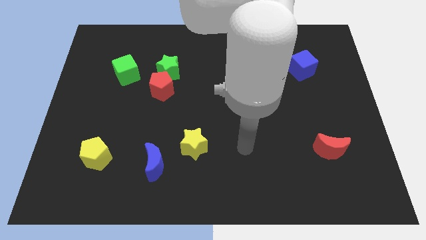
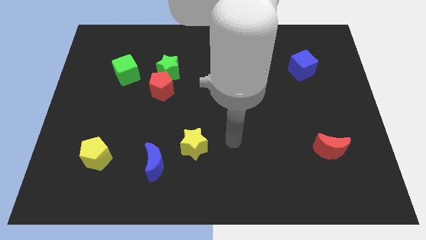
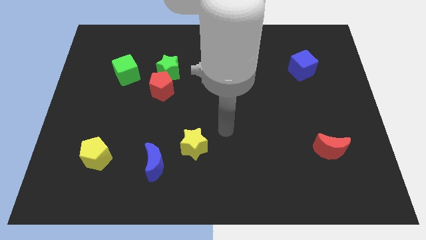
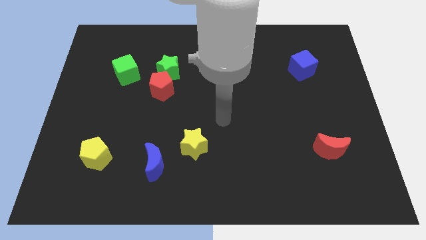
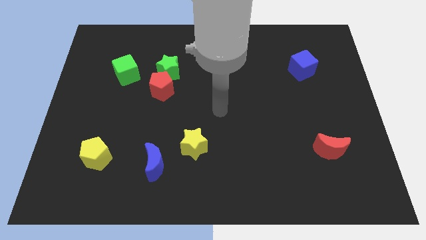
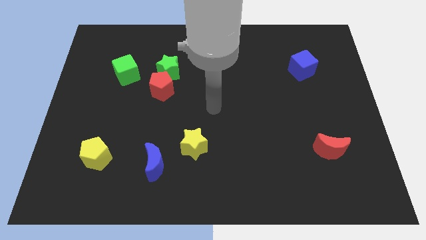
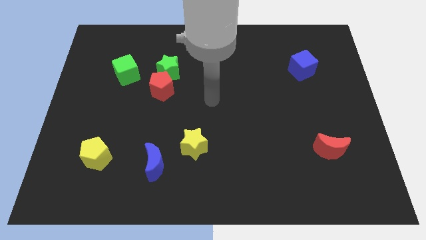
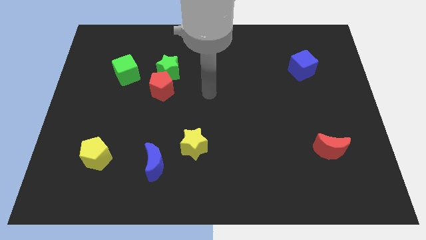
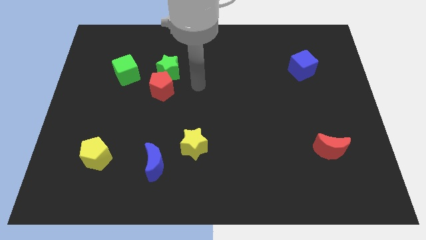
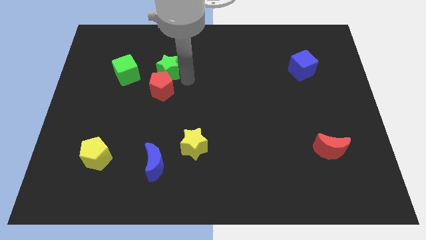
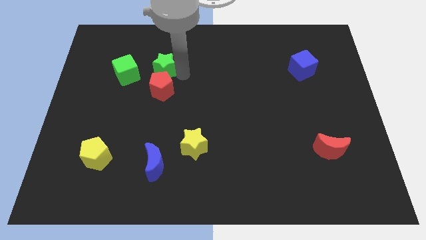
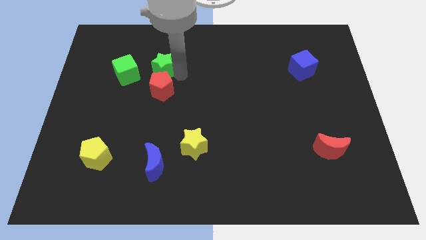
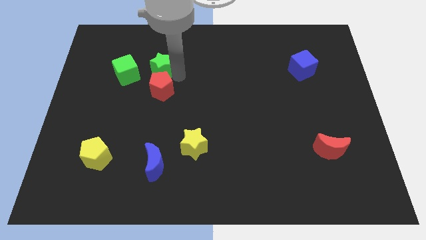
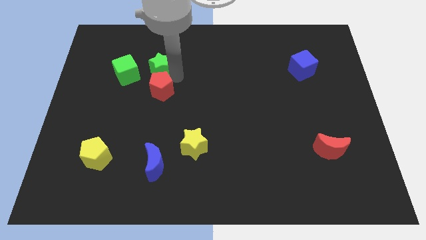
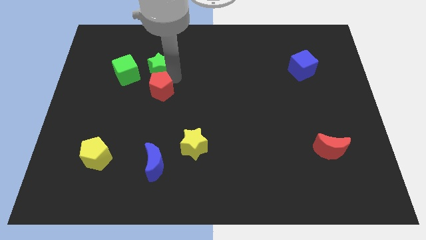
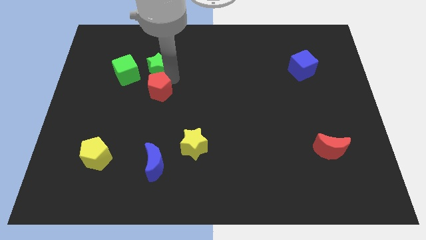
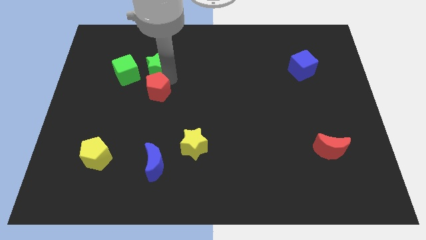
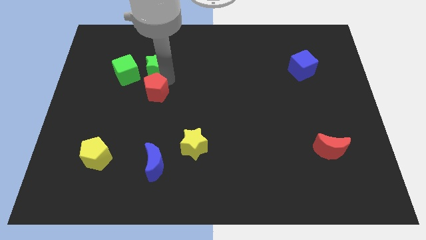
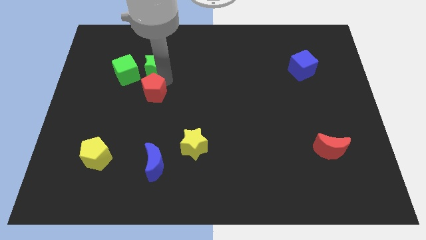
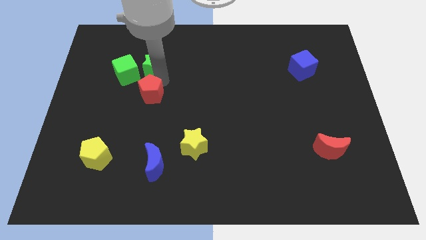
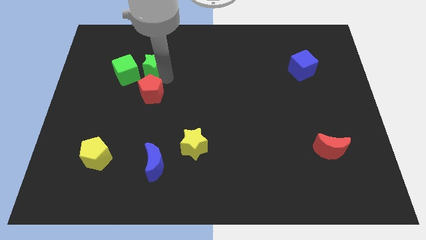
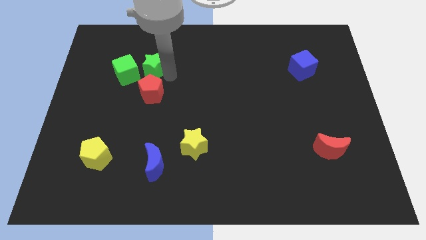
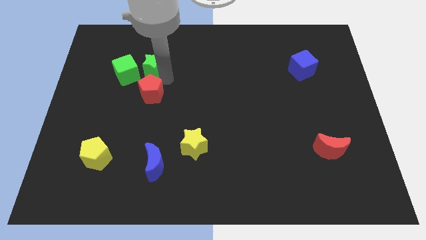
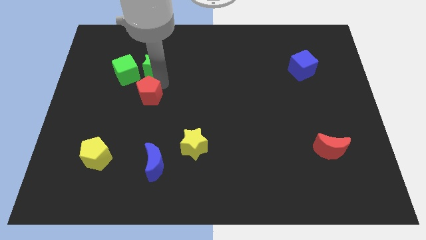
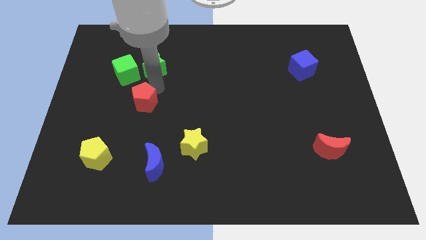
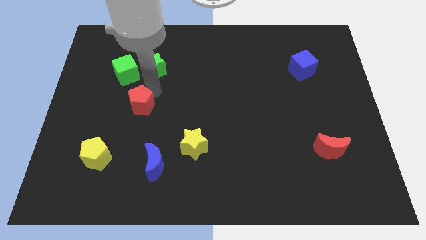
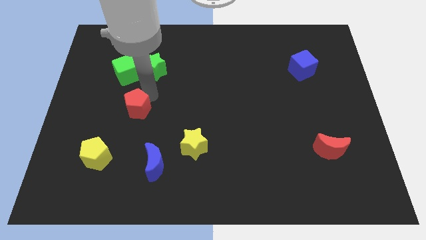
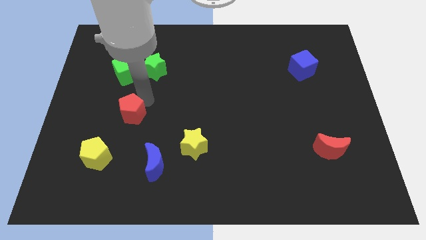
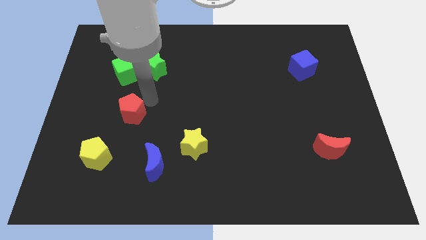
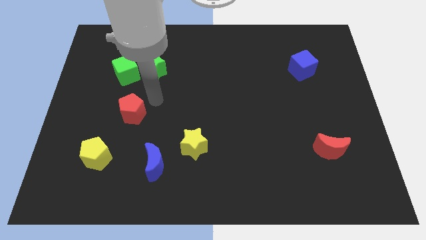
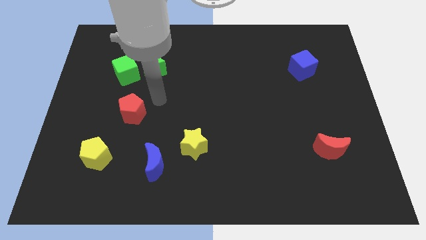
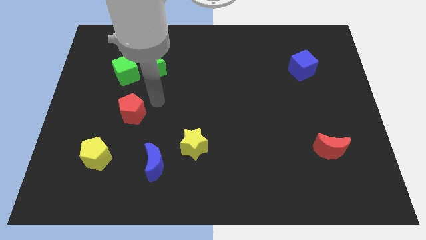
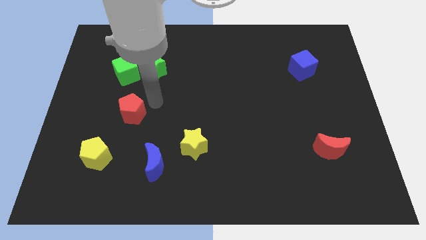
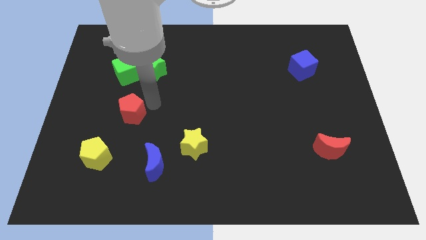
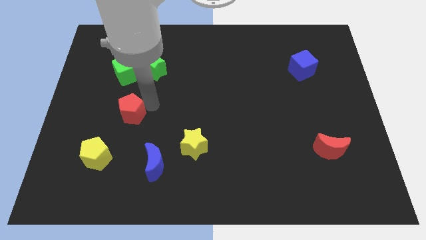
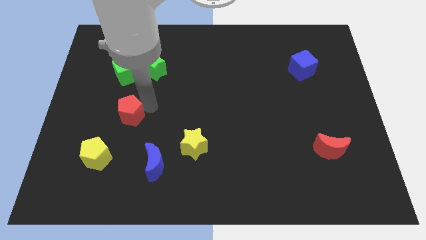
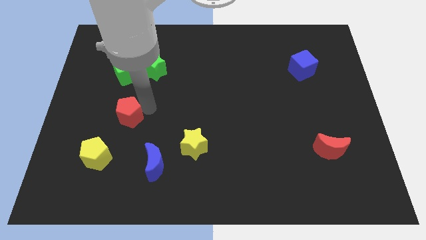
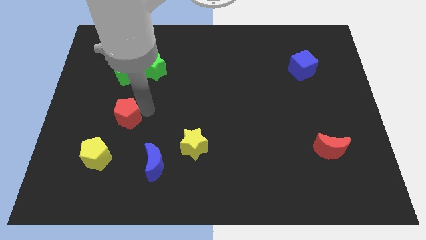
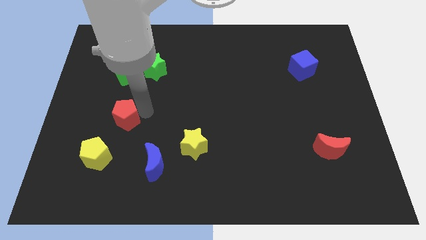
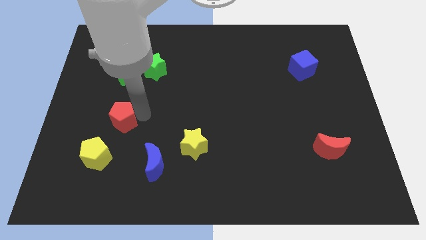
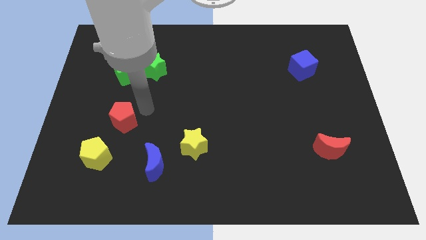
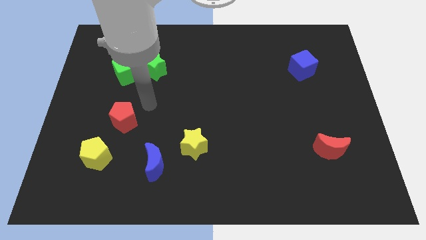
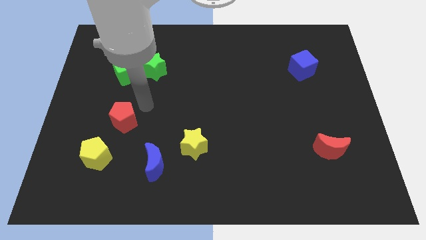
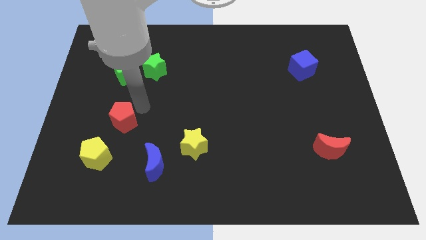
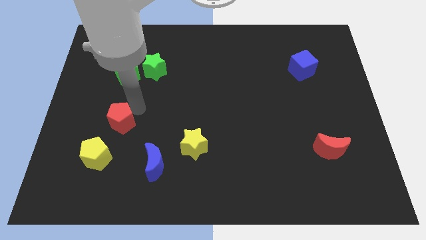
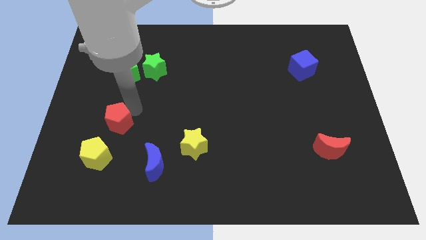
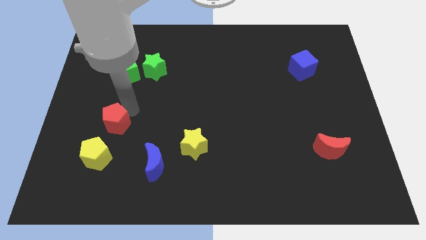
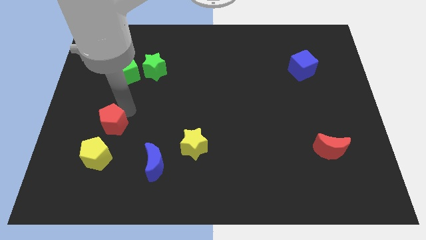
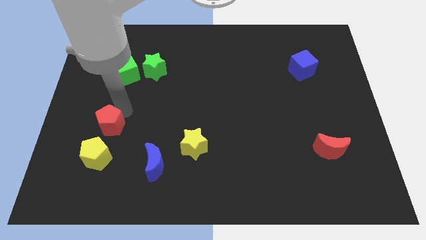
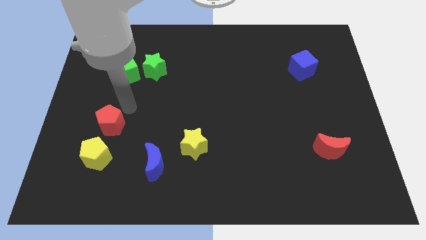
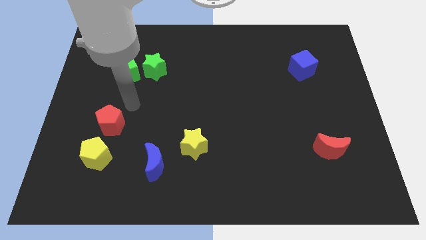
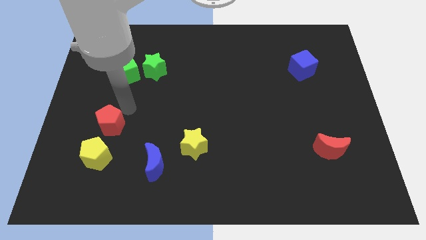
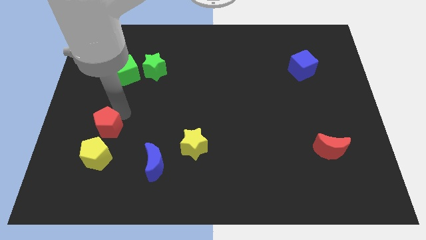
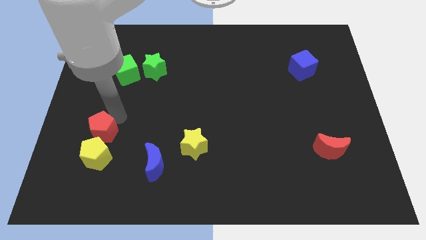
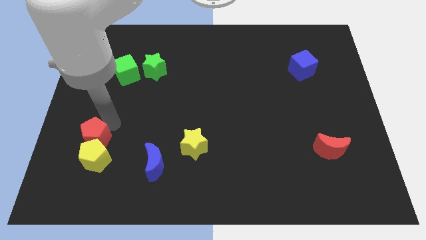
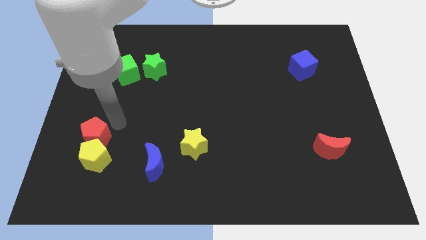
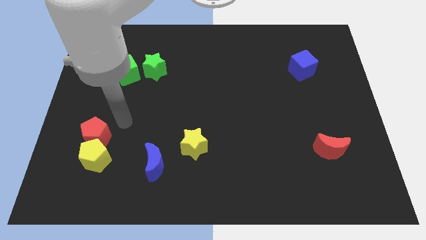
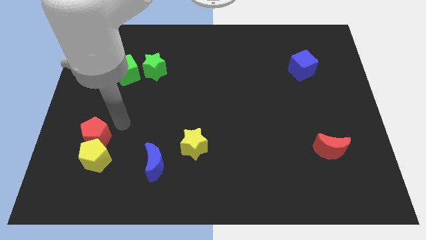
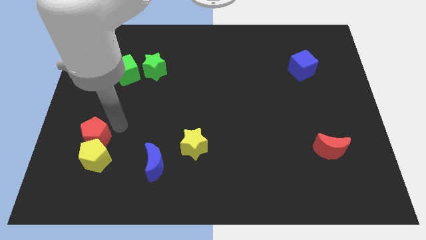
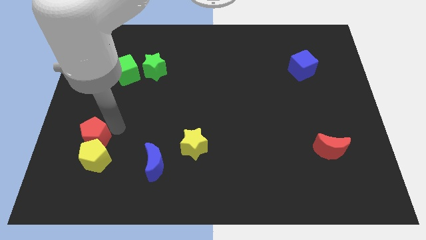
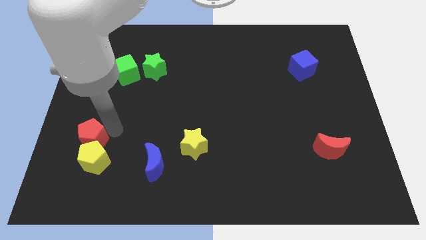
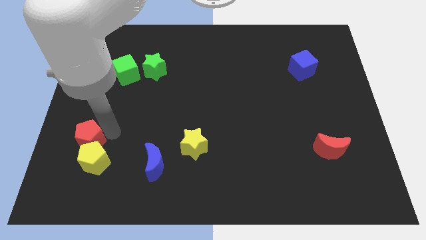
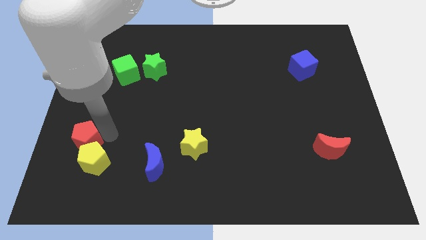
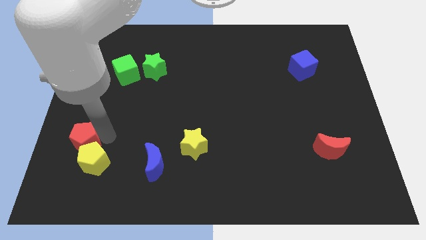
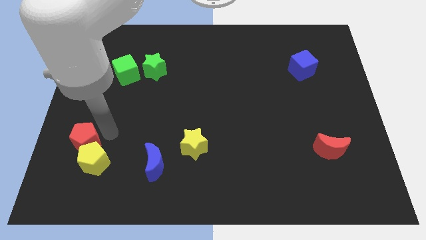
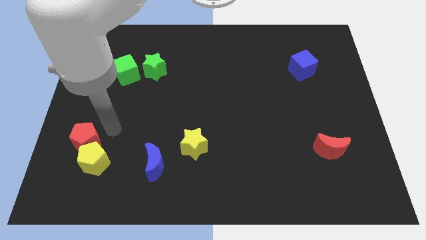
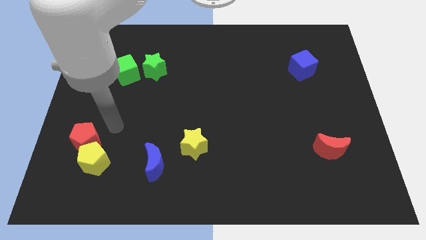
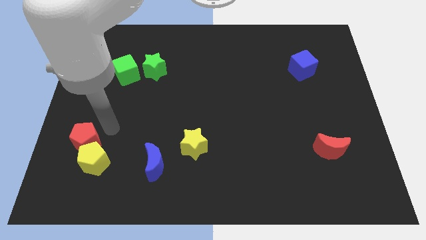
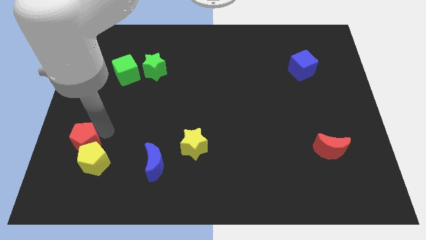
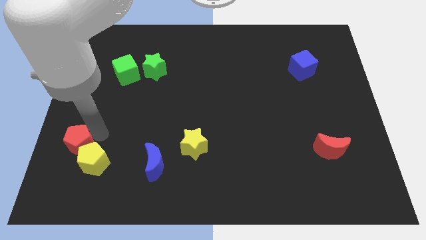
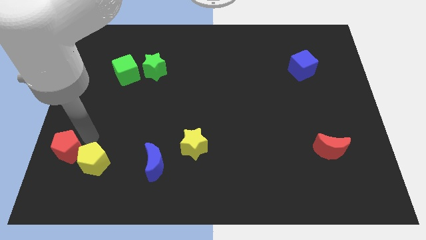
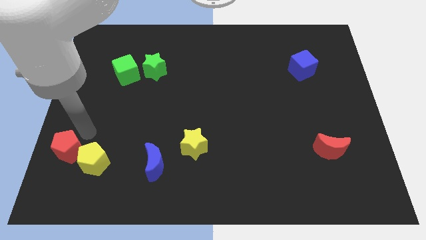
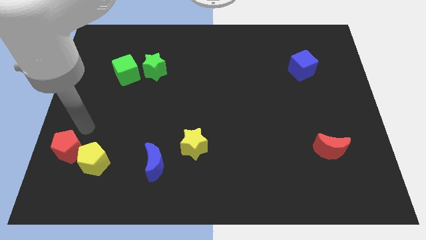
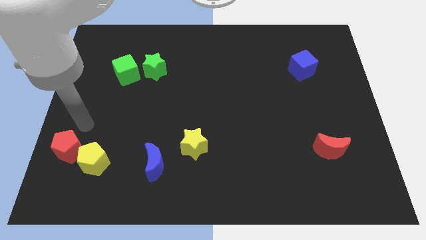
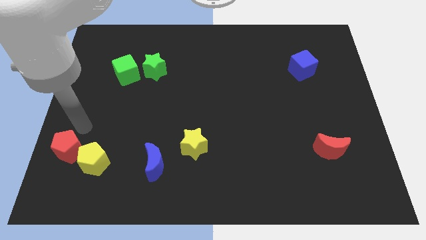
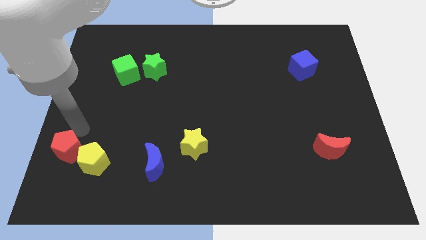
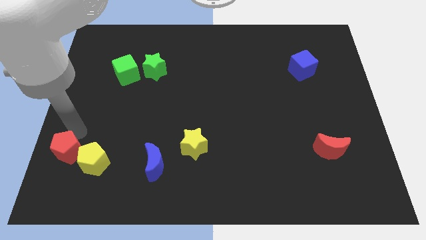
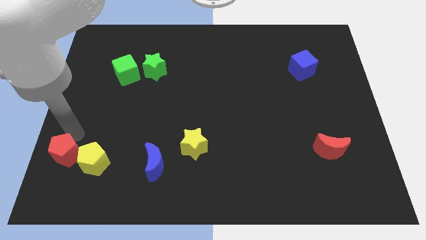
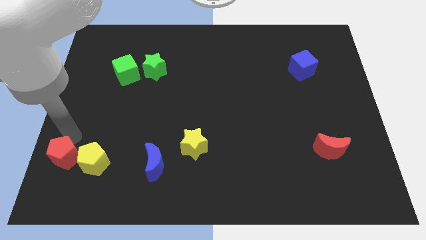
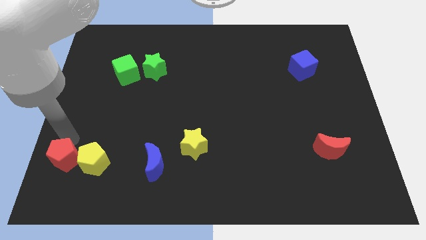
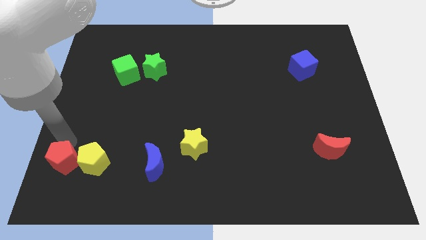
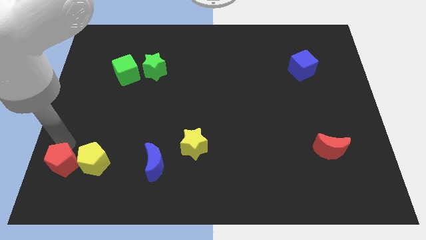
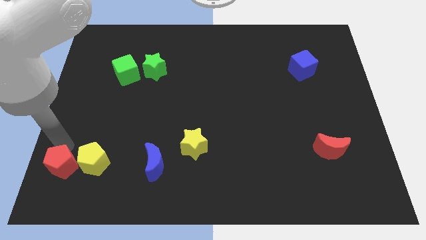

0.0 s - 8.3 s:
move the red pentagon to the bottom left corner
